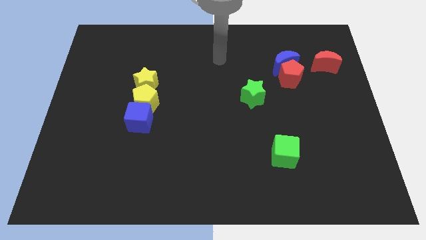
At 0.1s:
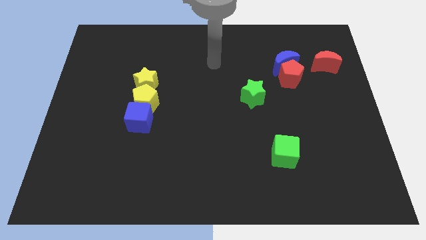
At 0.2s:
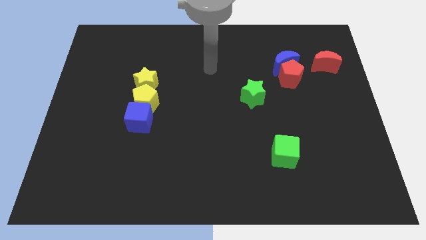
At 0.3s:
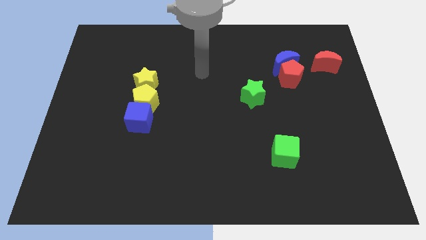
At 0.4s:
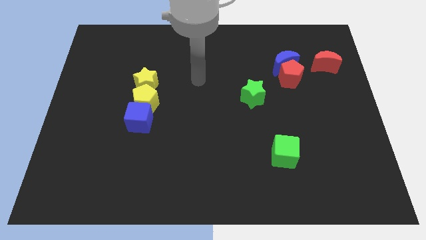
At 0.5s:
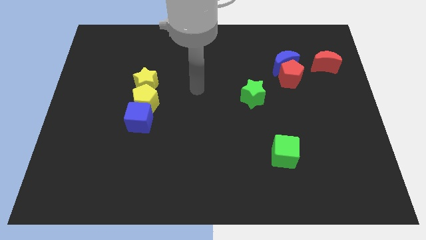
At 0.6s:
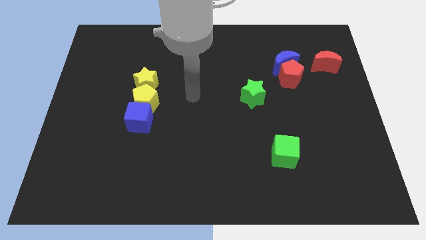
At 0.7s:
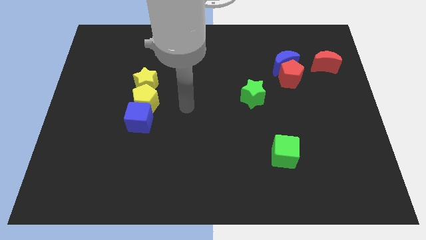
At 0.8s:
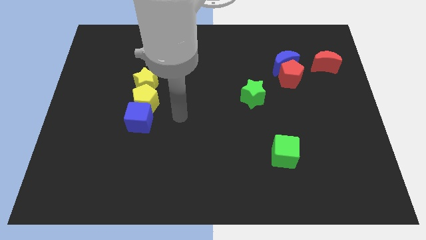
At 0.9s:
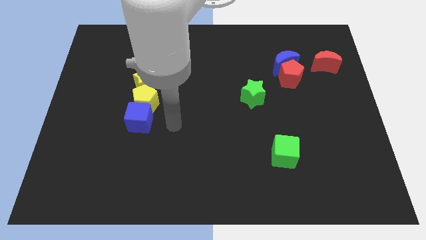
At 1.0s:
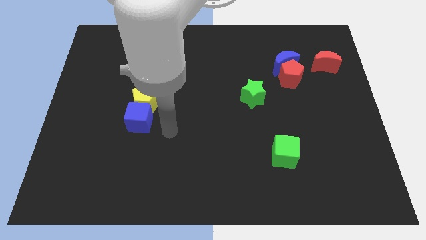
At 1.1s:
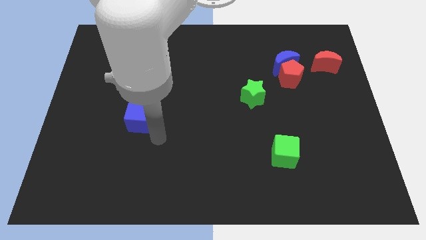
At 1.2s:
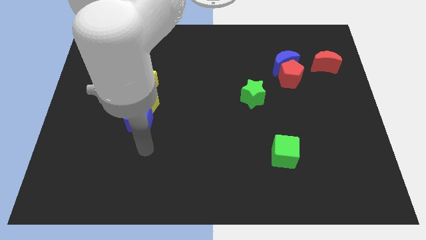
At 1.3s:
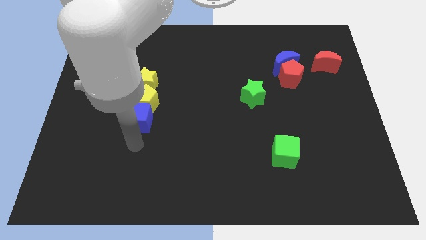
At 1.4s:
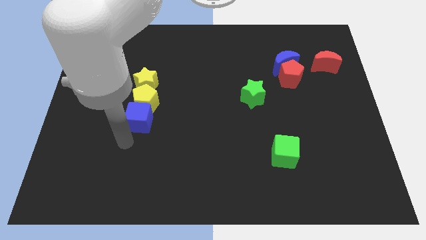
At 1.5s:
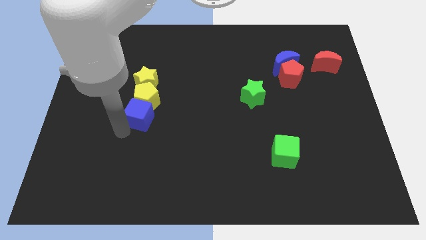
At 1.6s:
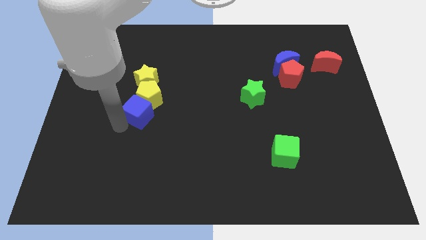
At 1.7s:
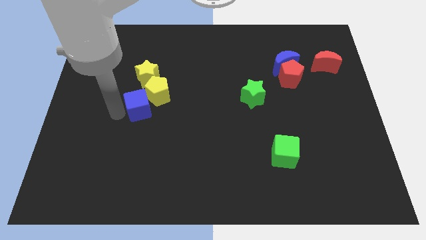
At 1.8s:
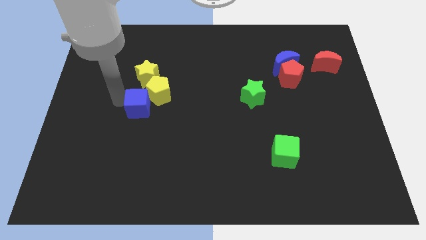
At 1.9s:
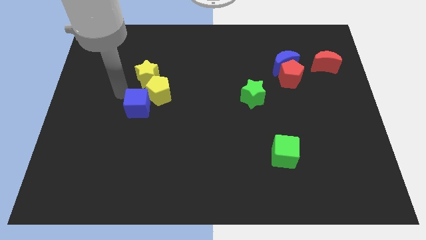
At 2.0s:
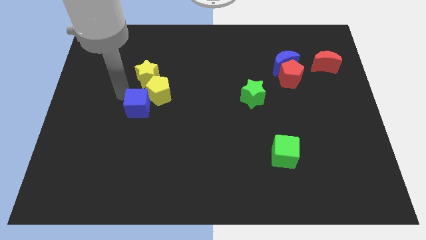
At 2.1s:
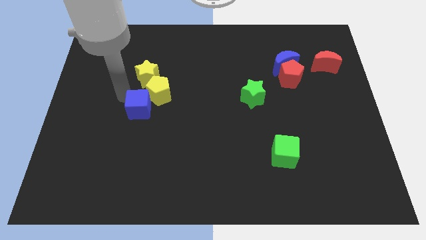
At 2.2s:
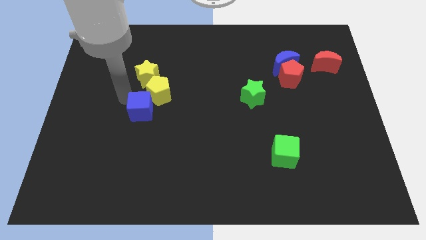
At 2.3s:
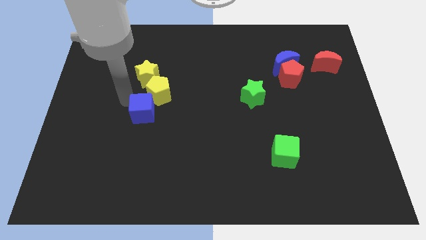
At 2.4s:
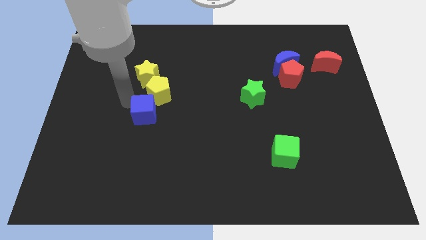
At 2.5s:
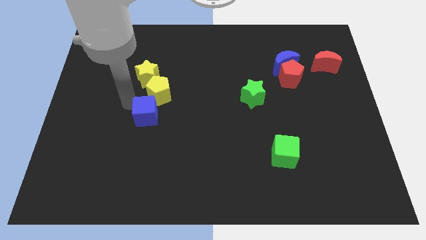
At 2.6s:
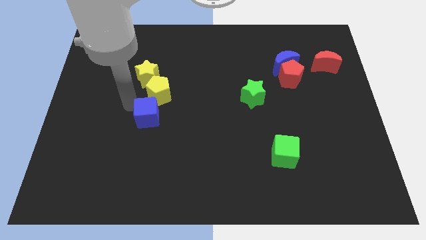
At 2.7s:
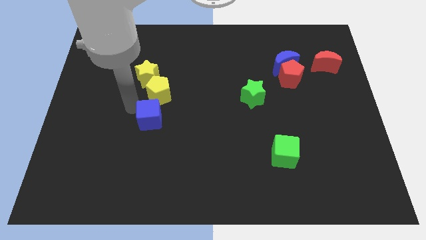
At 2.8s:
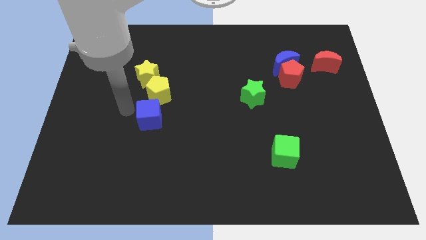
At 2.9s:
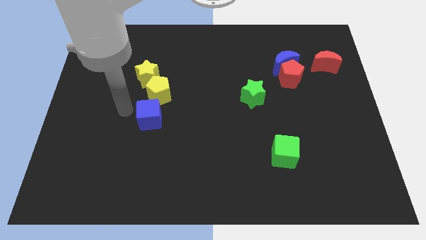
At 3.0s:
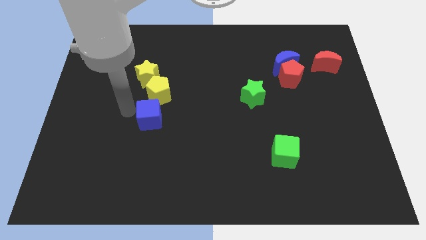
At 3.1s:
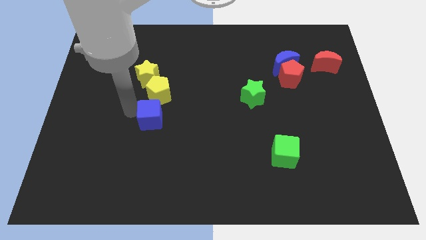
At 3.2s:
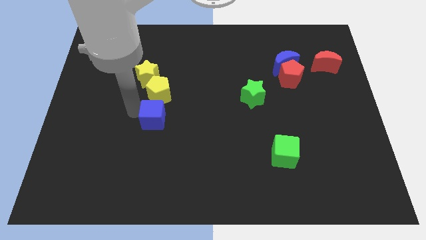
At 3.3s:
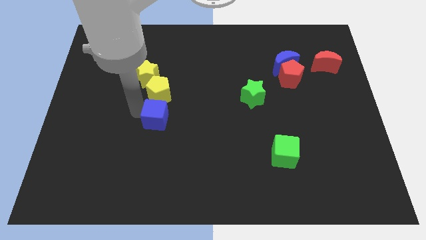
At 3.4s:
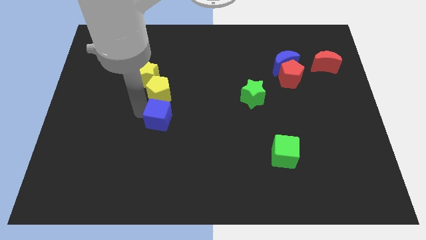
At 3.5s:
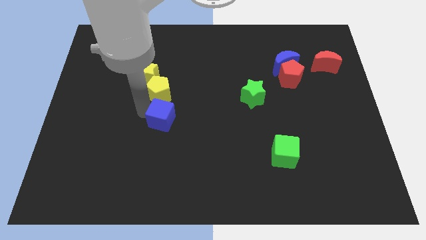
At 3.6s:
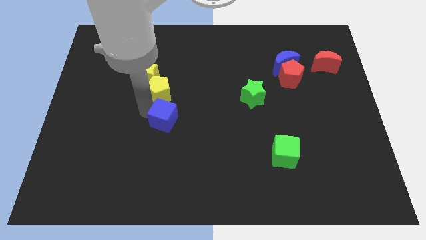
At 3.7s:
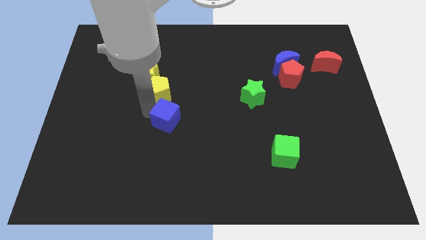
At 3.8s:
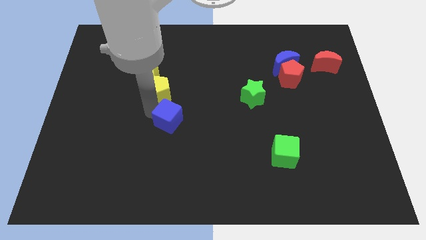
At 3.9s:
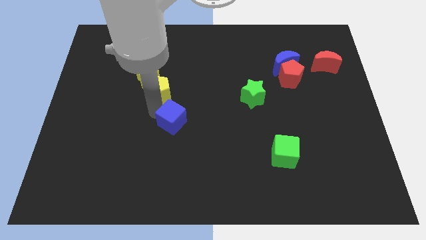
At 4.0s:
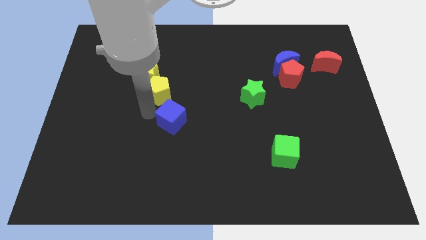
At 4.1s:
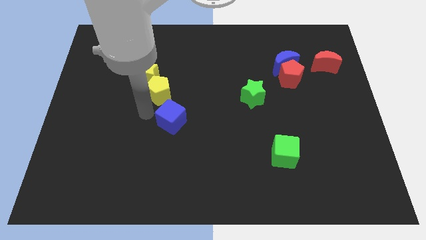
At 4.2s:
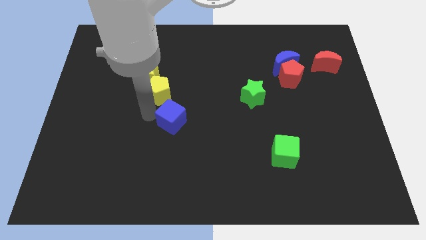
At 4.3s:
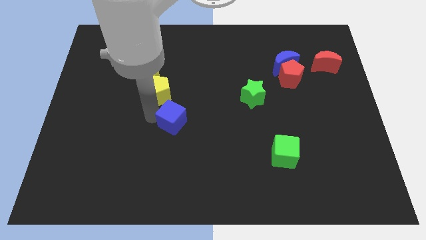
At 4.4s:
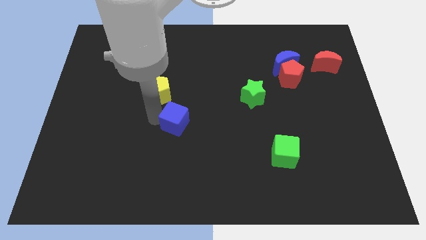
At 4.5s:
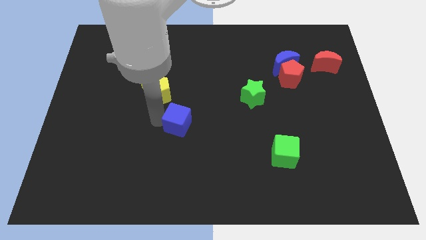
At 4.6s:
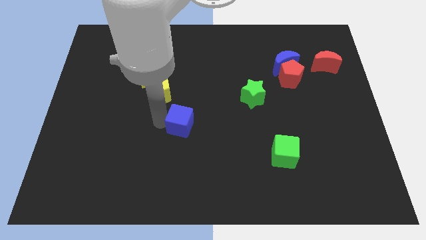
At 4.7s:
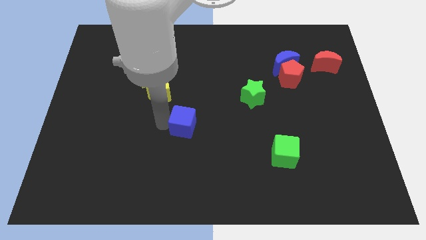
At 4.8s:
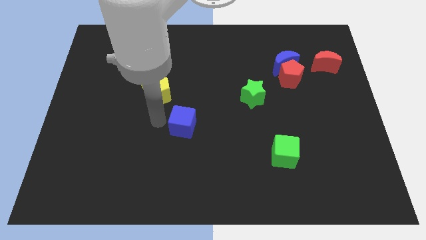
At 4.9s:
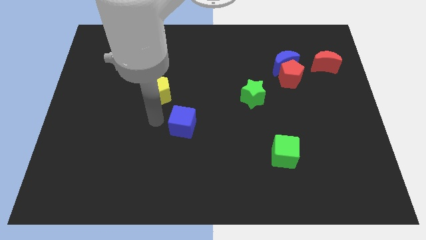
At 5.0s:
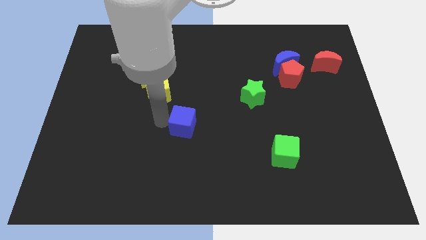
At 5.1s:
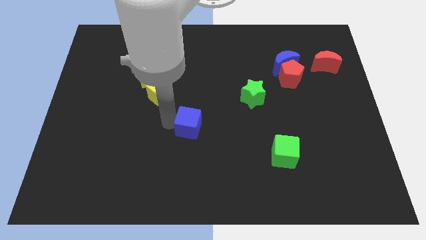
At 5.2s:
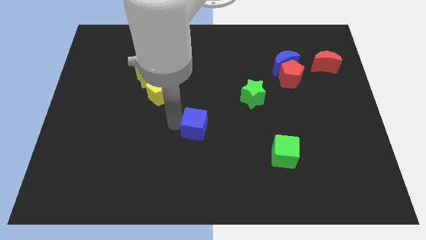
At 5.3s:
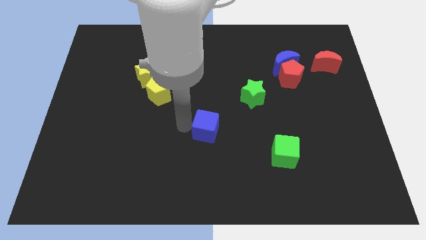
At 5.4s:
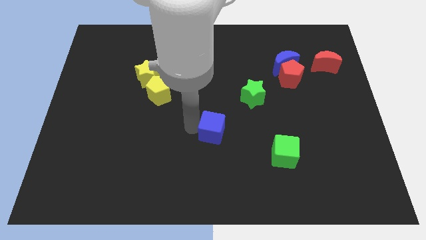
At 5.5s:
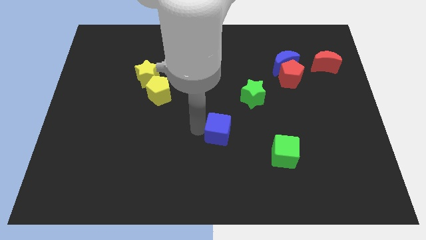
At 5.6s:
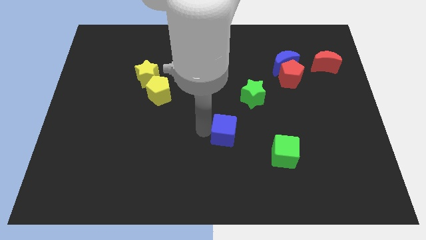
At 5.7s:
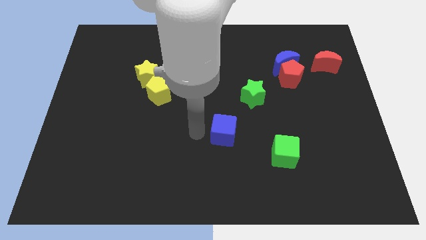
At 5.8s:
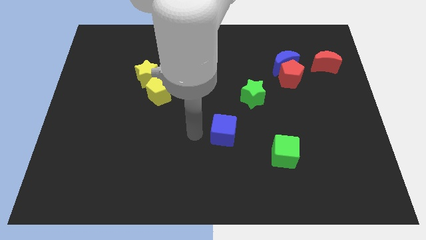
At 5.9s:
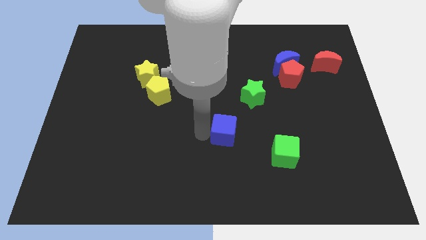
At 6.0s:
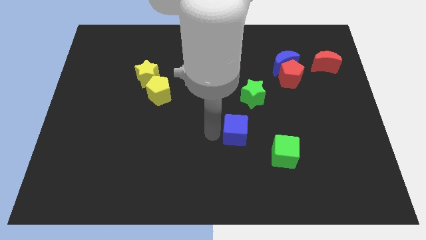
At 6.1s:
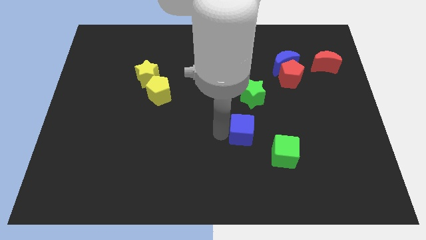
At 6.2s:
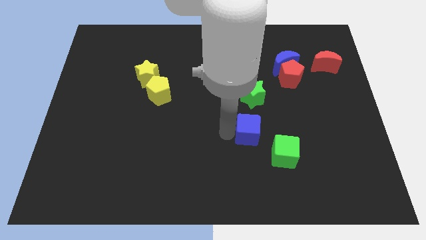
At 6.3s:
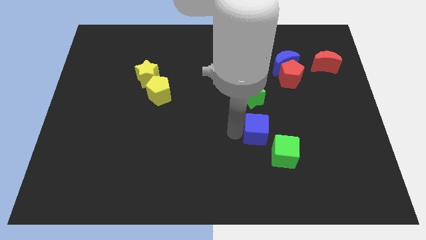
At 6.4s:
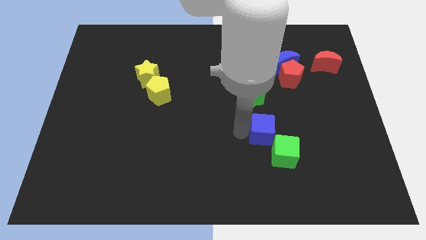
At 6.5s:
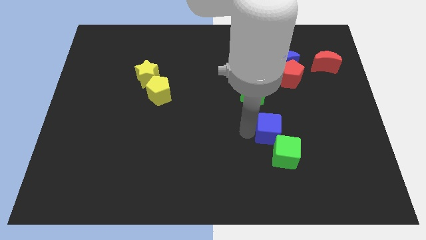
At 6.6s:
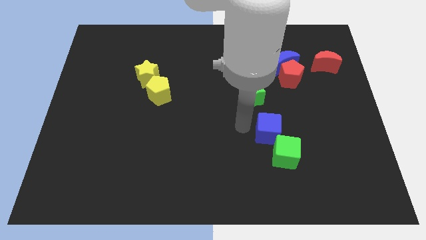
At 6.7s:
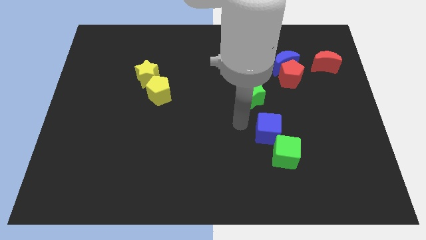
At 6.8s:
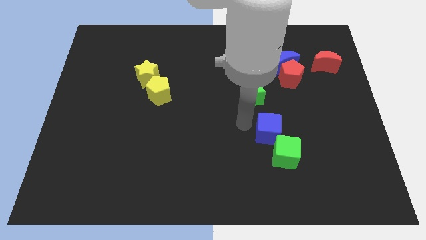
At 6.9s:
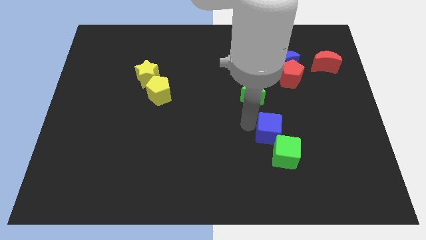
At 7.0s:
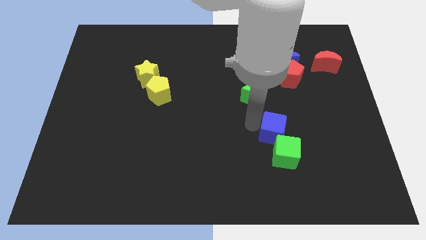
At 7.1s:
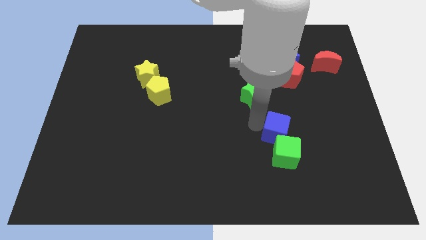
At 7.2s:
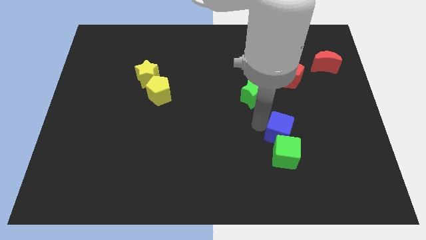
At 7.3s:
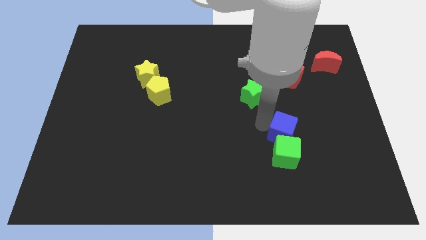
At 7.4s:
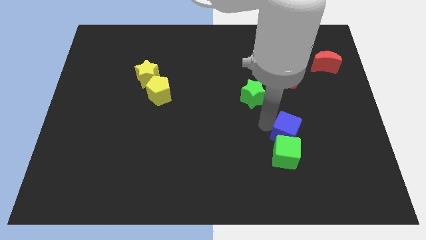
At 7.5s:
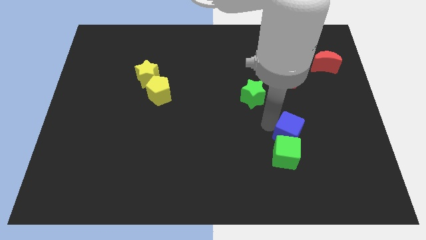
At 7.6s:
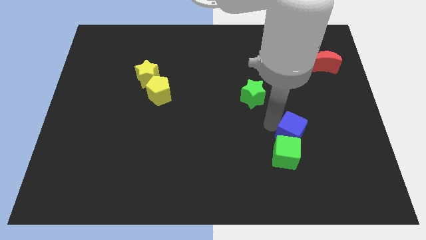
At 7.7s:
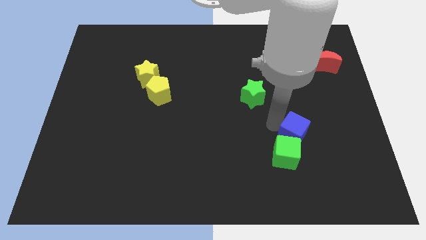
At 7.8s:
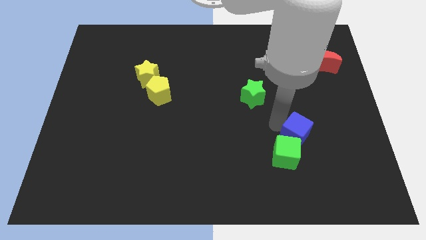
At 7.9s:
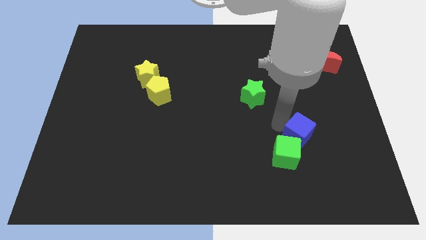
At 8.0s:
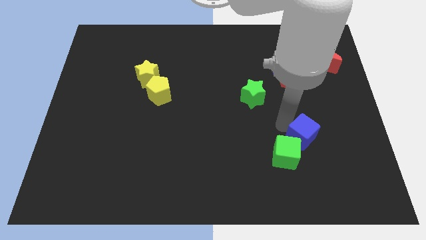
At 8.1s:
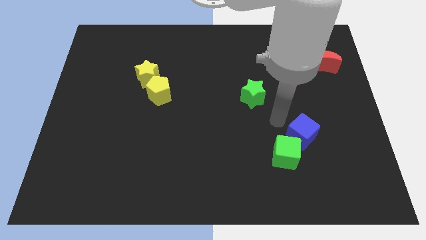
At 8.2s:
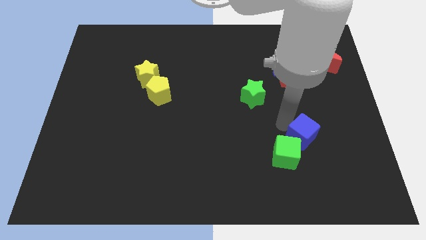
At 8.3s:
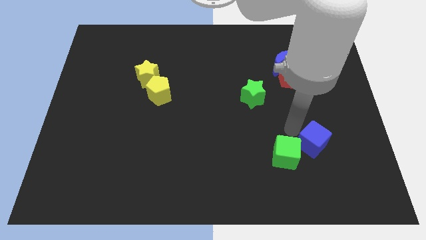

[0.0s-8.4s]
slide the blue cube just right of the green cube
